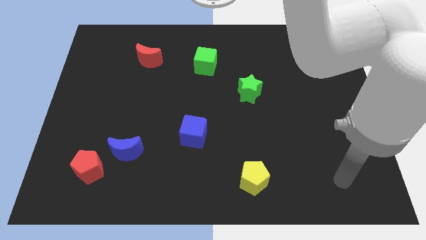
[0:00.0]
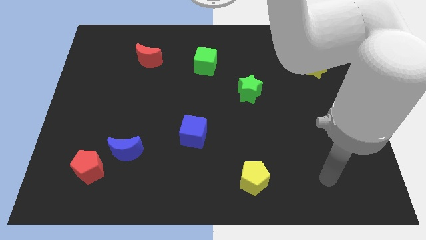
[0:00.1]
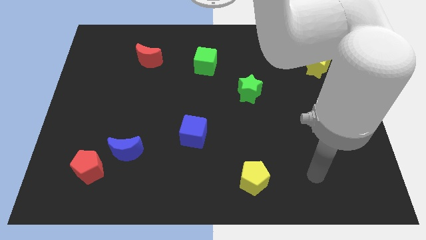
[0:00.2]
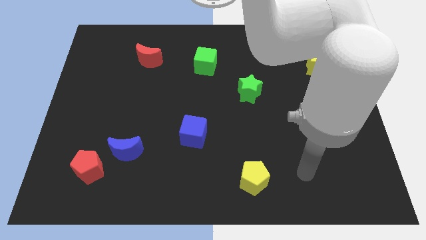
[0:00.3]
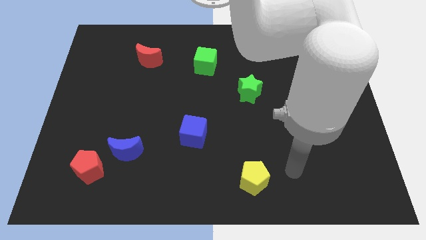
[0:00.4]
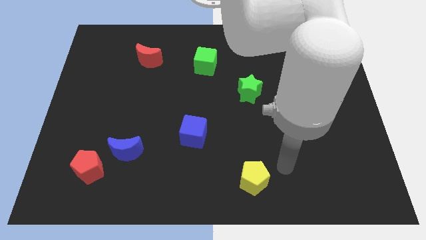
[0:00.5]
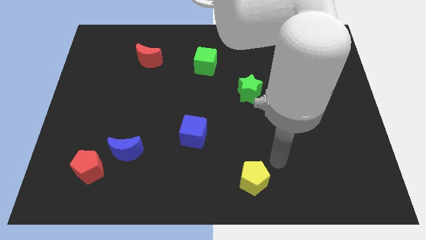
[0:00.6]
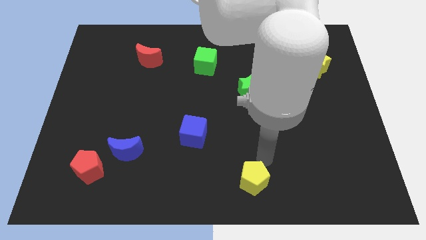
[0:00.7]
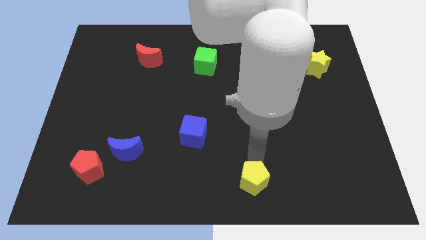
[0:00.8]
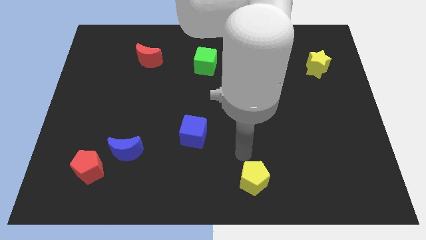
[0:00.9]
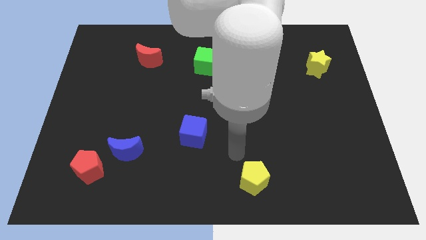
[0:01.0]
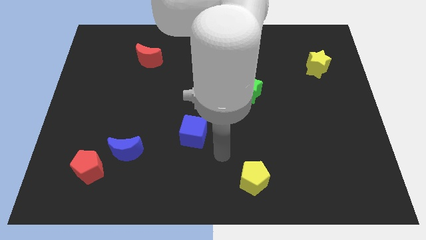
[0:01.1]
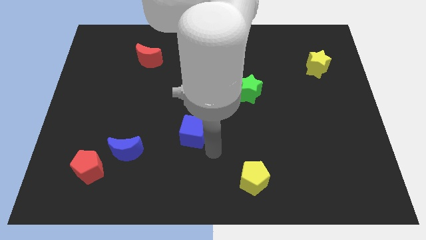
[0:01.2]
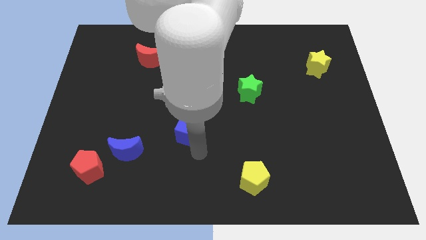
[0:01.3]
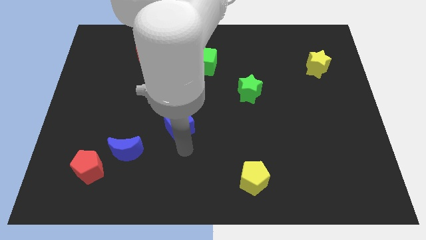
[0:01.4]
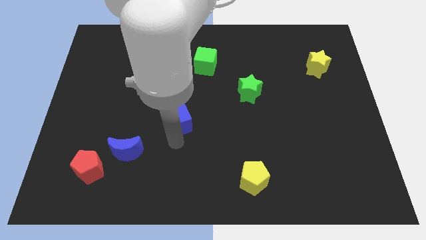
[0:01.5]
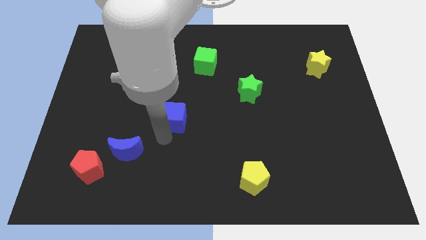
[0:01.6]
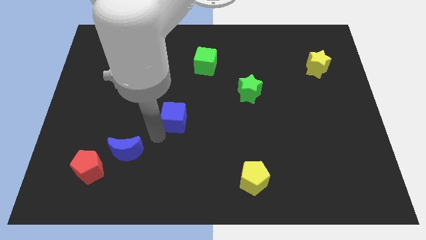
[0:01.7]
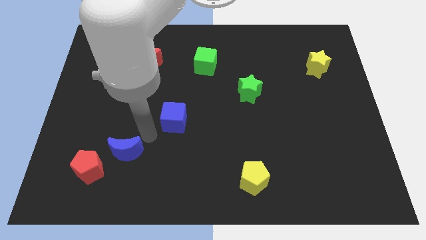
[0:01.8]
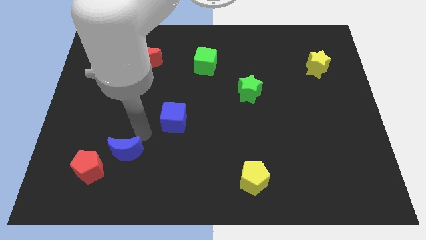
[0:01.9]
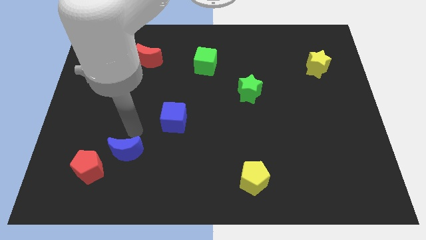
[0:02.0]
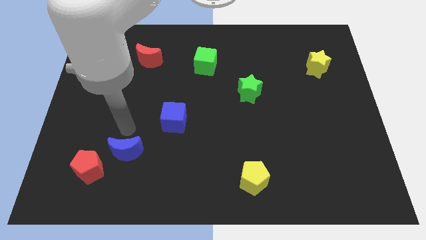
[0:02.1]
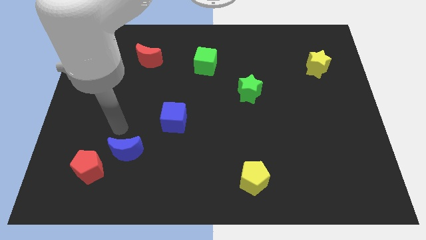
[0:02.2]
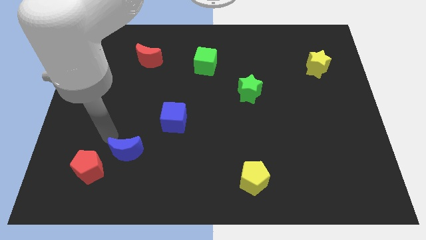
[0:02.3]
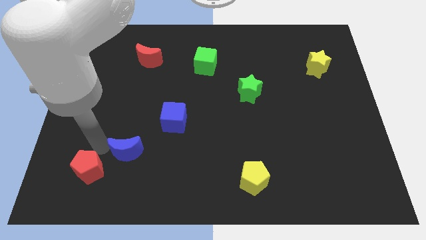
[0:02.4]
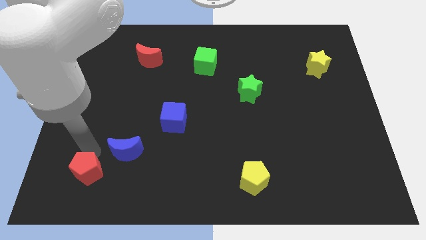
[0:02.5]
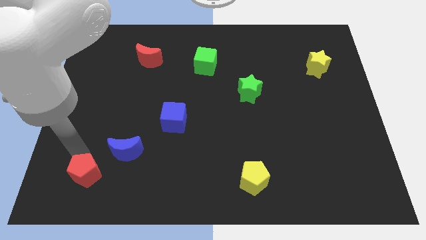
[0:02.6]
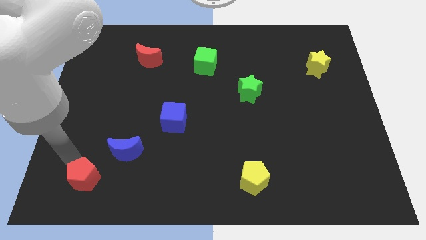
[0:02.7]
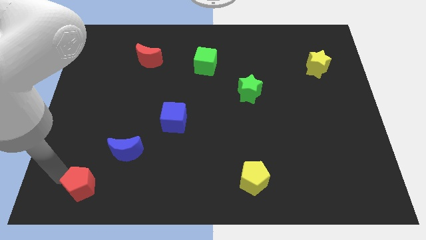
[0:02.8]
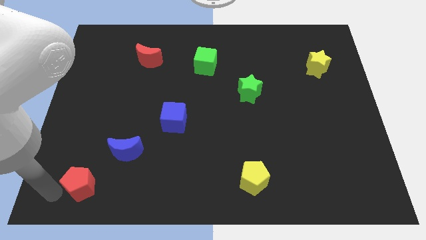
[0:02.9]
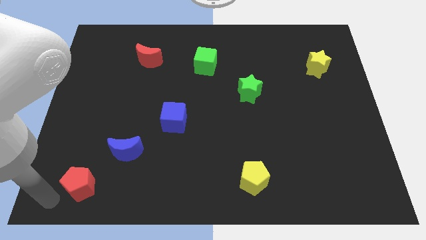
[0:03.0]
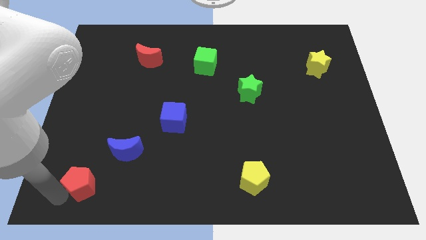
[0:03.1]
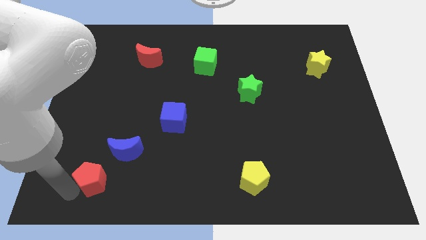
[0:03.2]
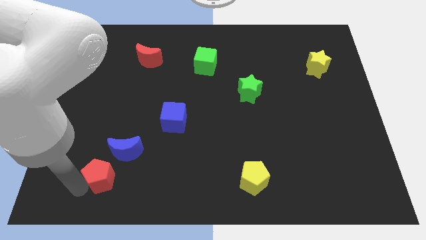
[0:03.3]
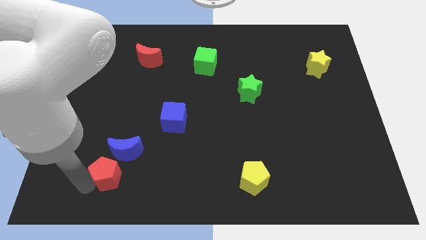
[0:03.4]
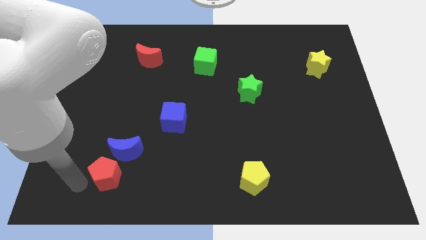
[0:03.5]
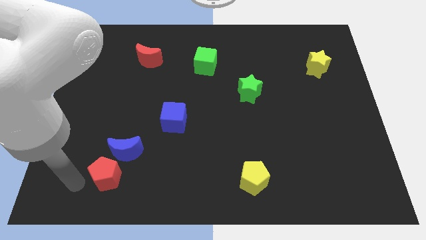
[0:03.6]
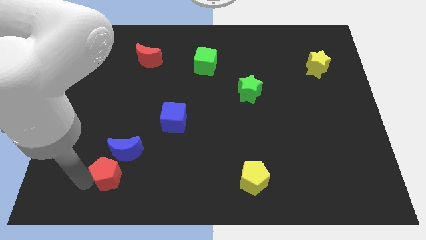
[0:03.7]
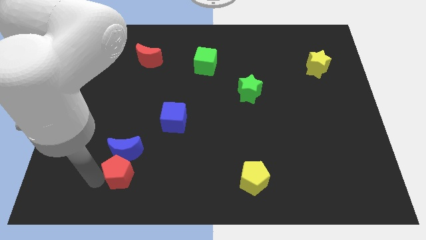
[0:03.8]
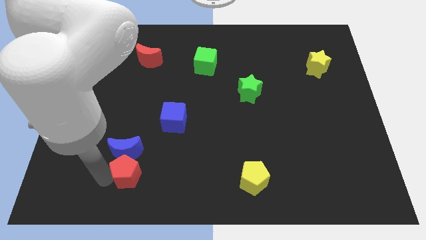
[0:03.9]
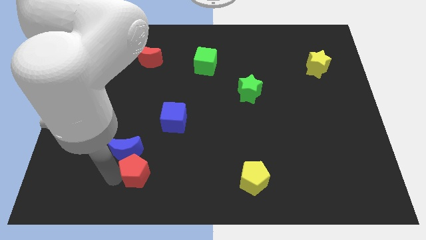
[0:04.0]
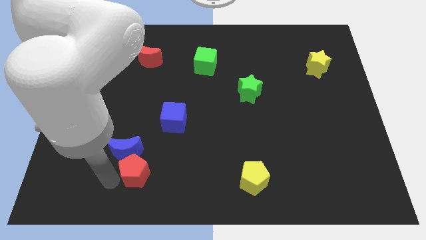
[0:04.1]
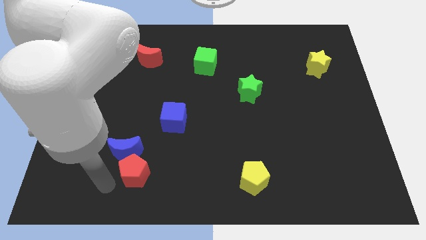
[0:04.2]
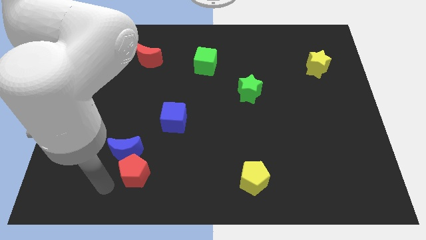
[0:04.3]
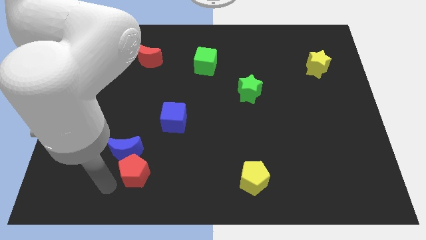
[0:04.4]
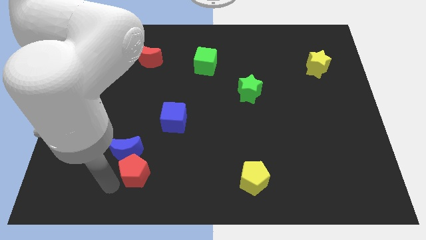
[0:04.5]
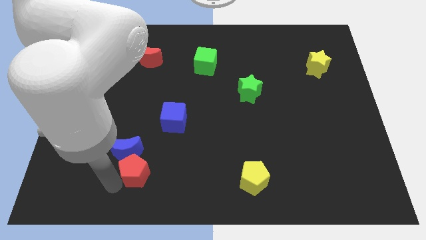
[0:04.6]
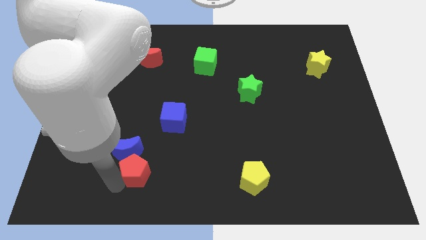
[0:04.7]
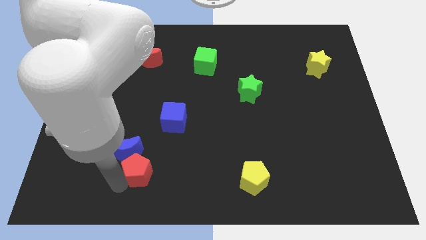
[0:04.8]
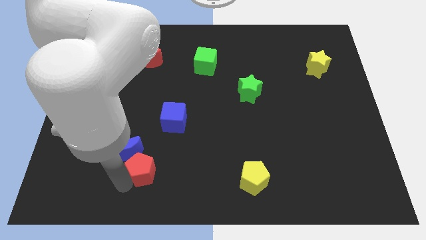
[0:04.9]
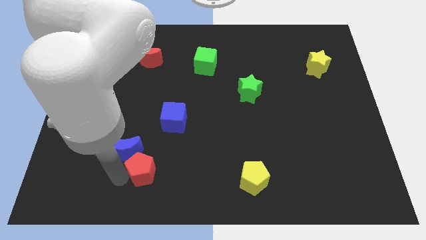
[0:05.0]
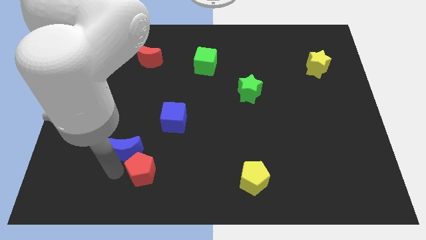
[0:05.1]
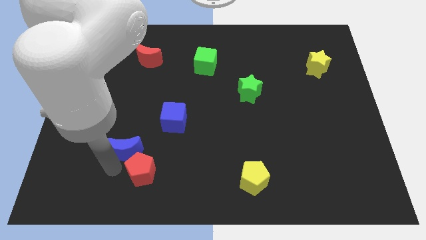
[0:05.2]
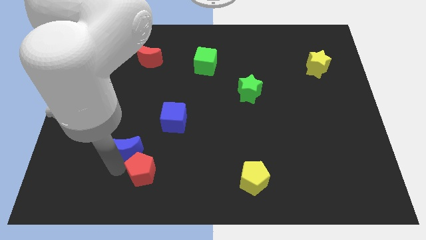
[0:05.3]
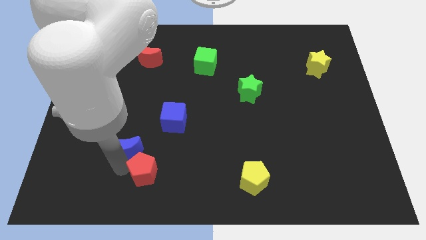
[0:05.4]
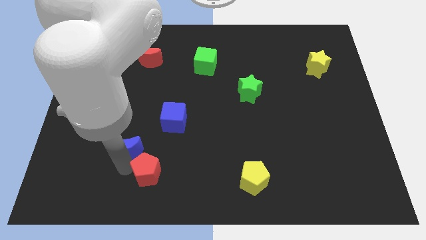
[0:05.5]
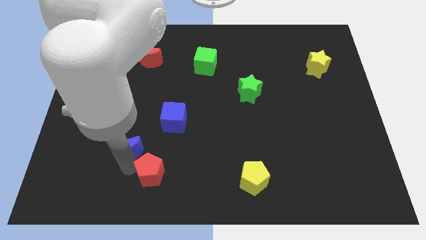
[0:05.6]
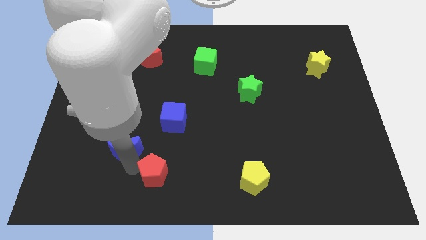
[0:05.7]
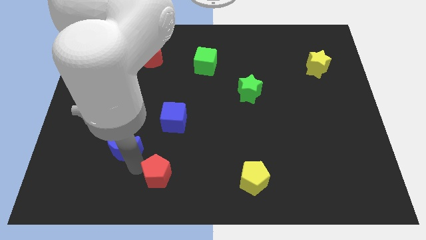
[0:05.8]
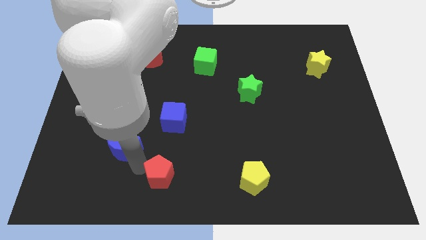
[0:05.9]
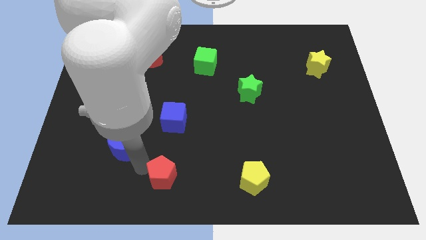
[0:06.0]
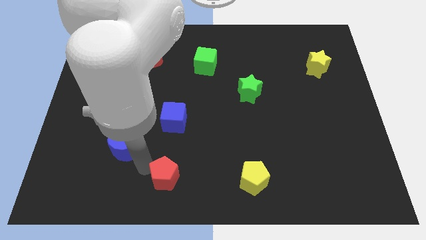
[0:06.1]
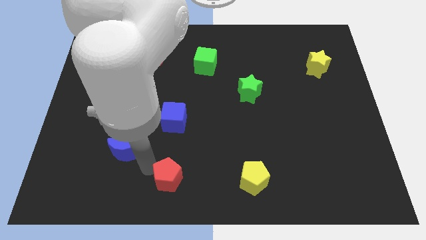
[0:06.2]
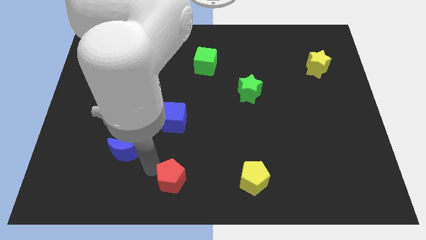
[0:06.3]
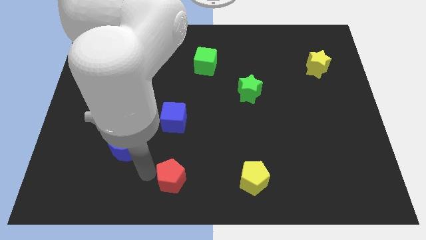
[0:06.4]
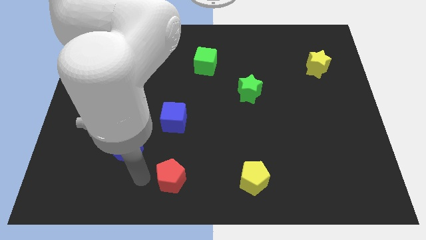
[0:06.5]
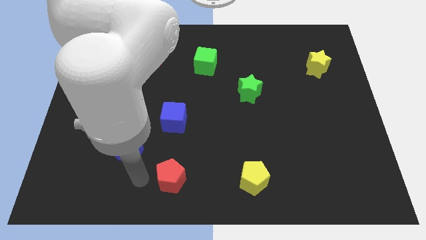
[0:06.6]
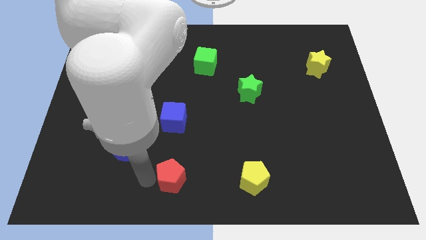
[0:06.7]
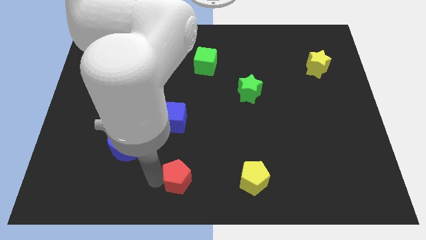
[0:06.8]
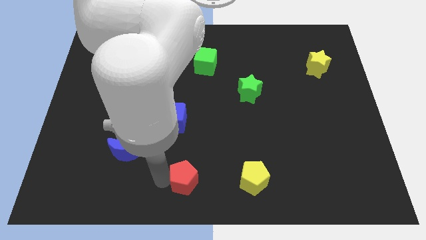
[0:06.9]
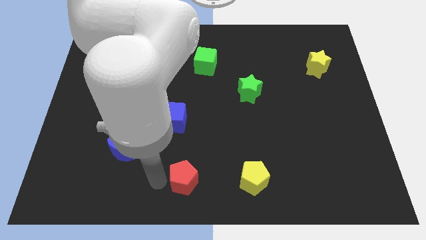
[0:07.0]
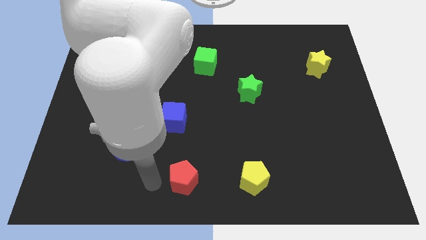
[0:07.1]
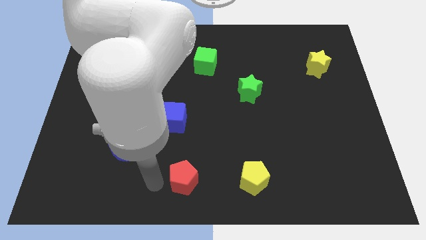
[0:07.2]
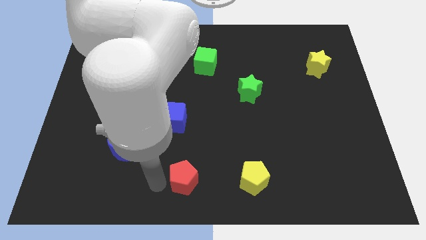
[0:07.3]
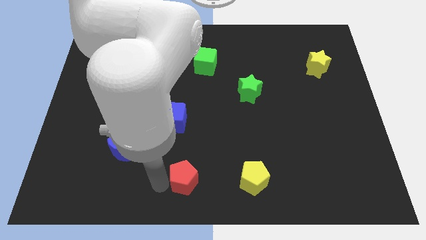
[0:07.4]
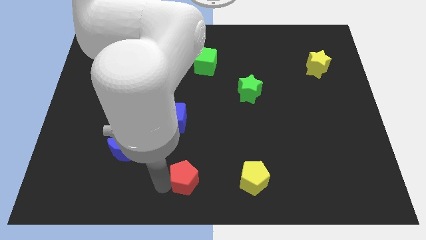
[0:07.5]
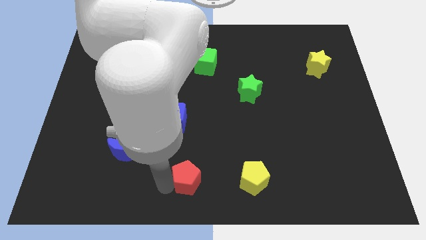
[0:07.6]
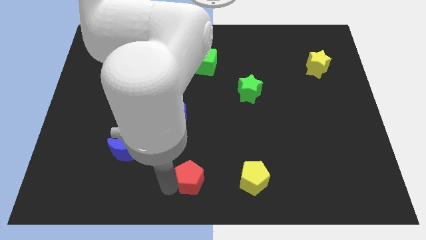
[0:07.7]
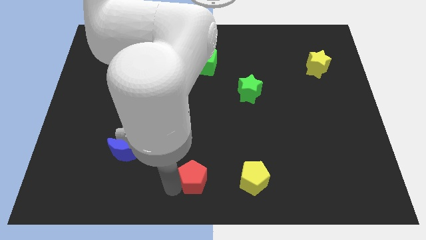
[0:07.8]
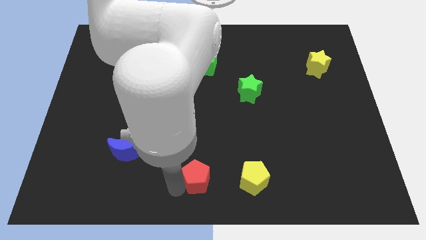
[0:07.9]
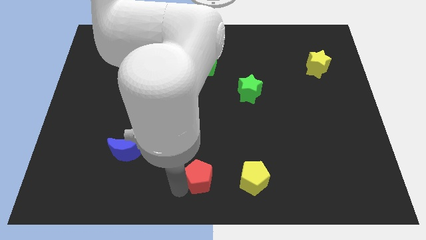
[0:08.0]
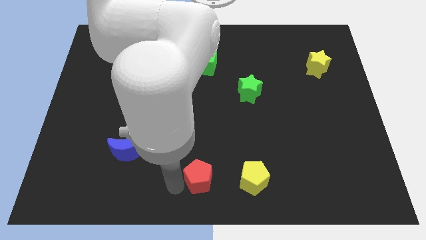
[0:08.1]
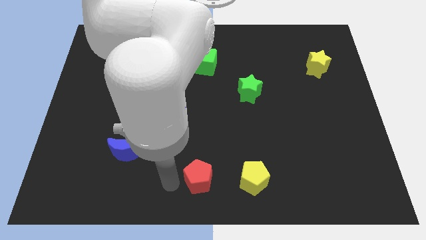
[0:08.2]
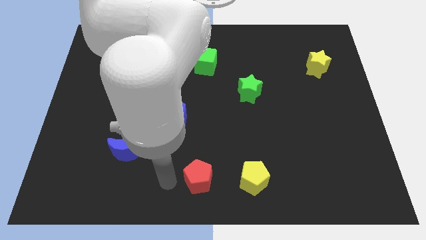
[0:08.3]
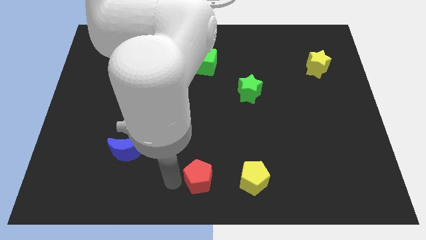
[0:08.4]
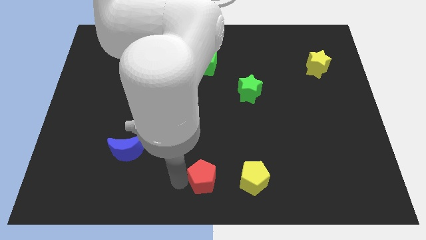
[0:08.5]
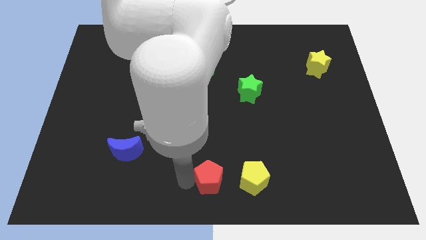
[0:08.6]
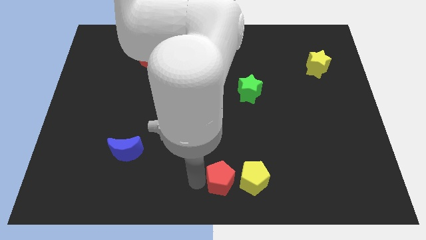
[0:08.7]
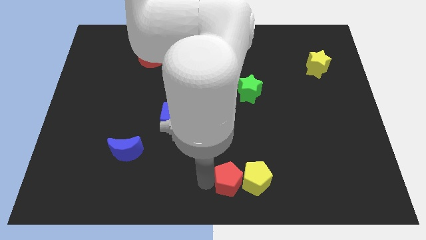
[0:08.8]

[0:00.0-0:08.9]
move the red pentagon to the yellow pentagon
